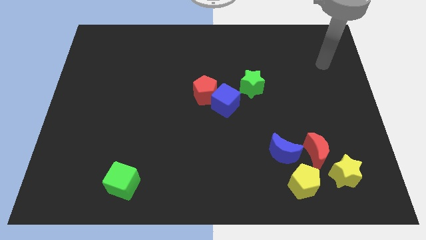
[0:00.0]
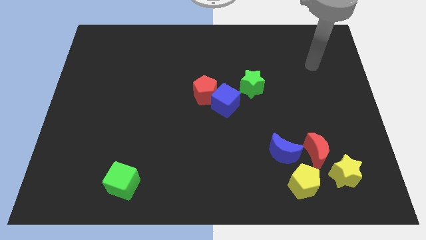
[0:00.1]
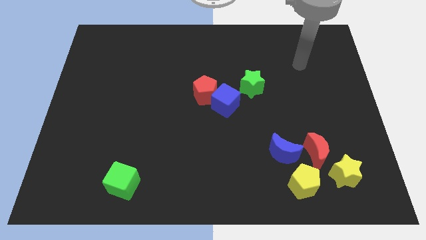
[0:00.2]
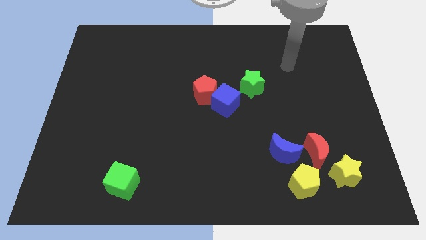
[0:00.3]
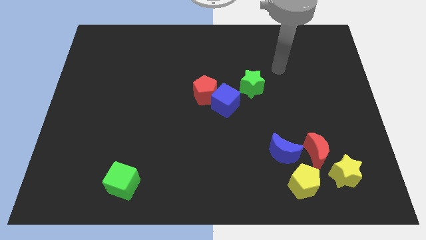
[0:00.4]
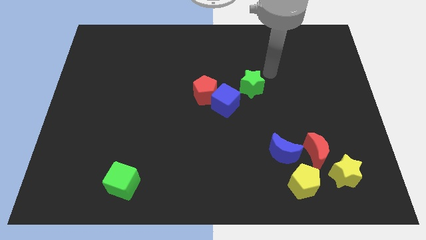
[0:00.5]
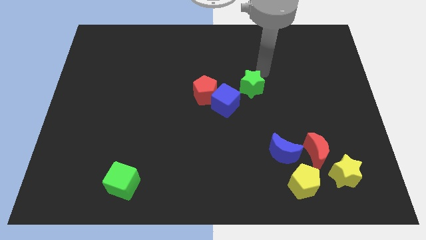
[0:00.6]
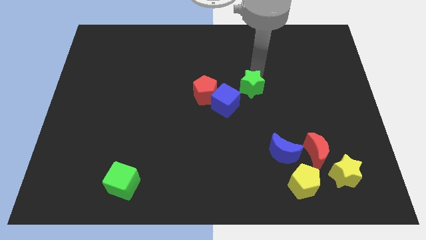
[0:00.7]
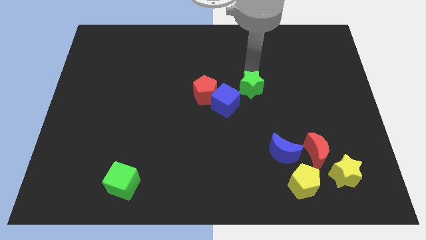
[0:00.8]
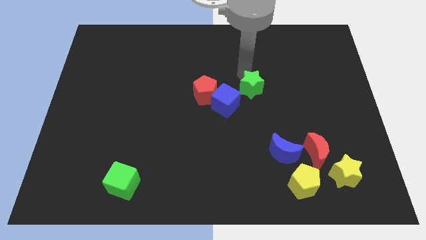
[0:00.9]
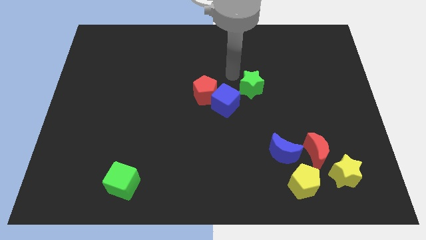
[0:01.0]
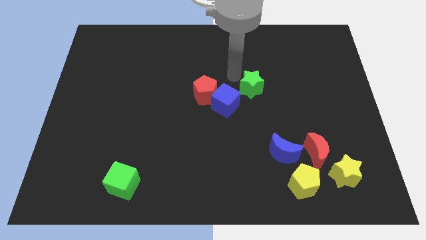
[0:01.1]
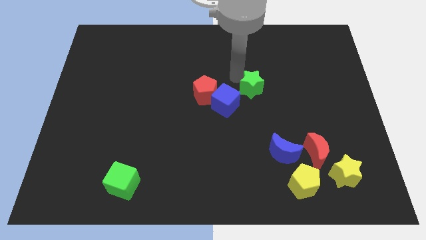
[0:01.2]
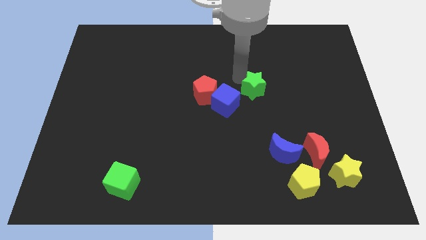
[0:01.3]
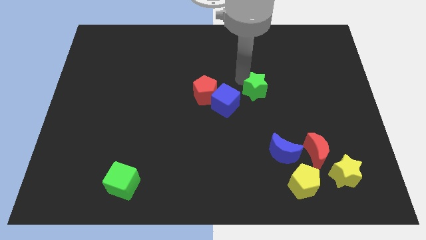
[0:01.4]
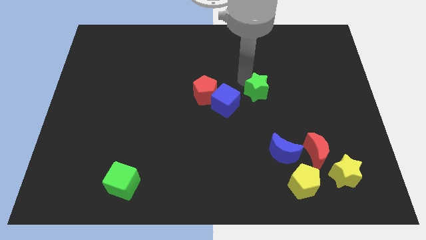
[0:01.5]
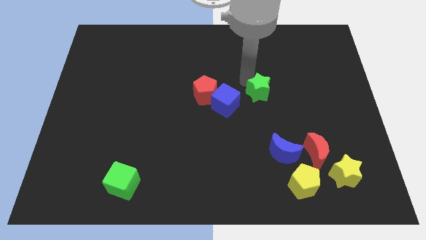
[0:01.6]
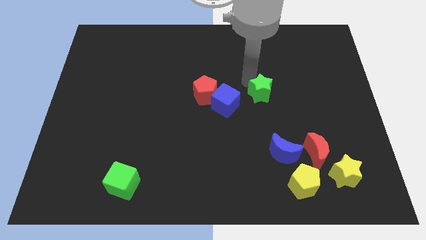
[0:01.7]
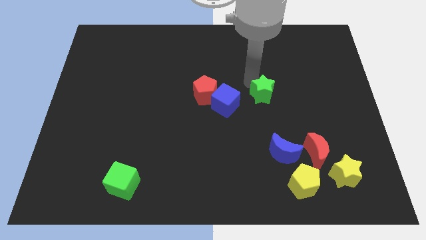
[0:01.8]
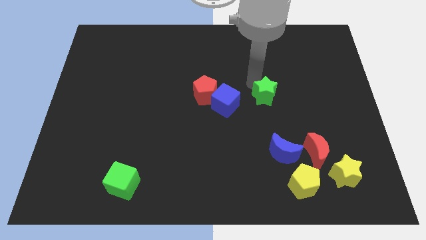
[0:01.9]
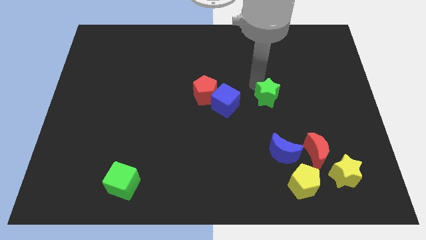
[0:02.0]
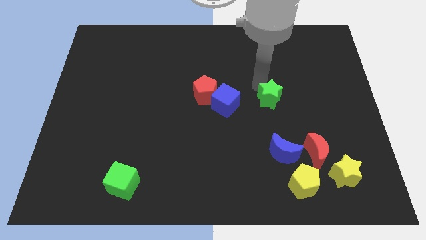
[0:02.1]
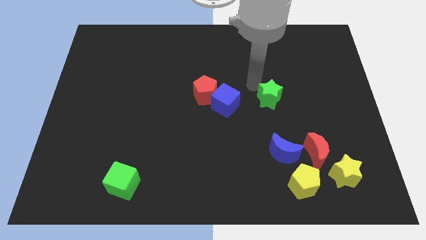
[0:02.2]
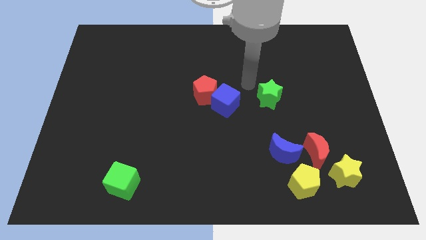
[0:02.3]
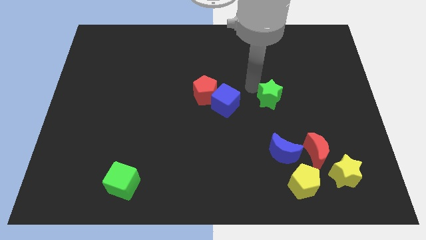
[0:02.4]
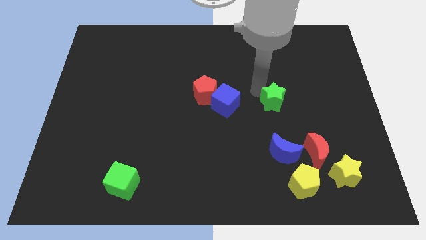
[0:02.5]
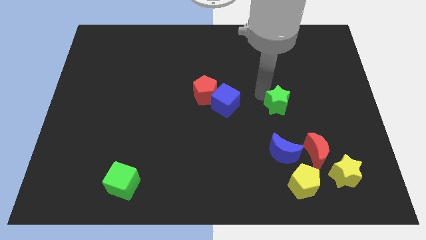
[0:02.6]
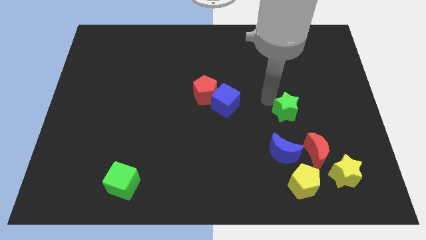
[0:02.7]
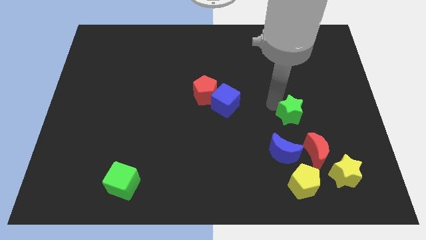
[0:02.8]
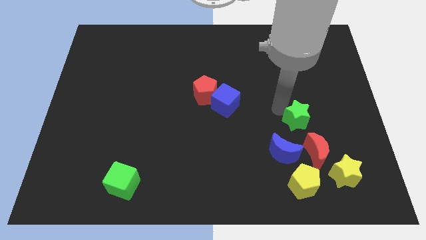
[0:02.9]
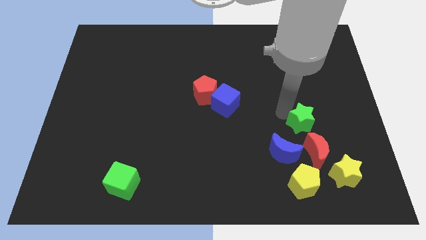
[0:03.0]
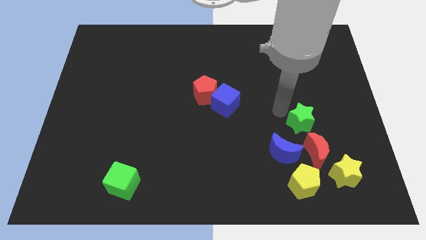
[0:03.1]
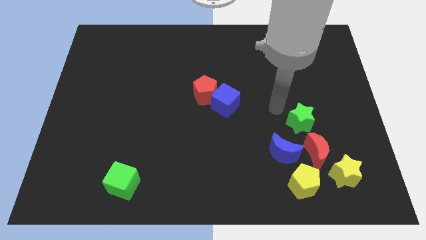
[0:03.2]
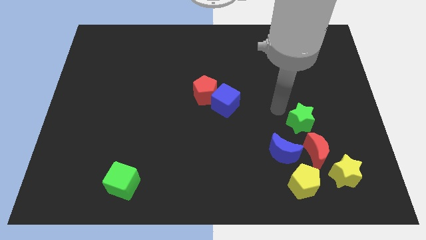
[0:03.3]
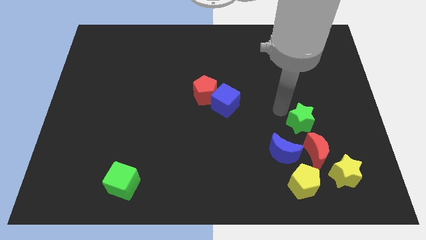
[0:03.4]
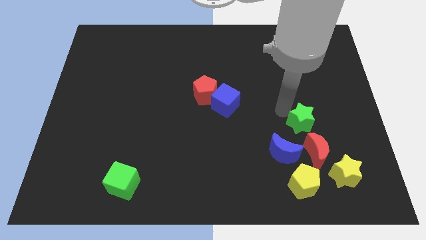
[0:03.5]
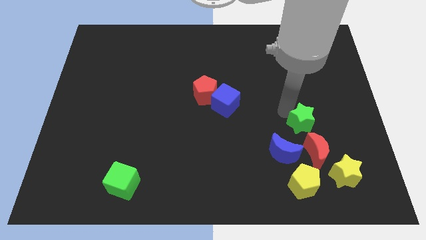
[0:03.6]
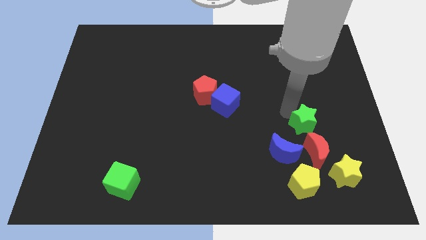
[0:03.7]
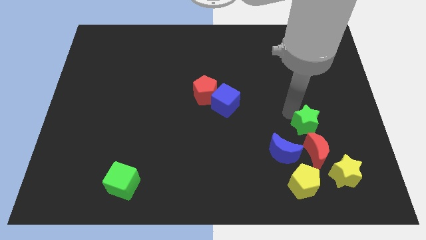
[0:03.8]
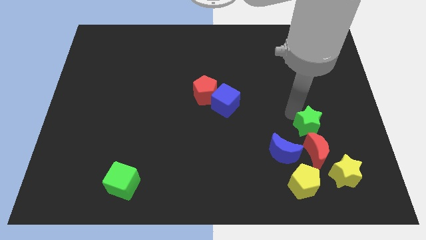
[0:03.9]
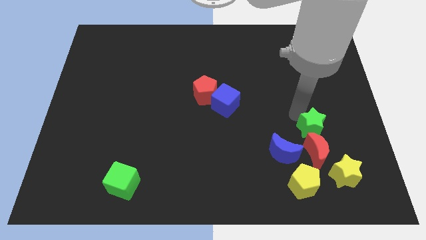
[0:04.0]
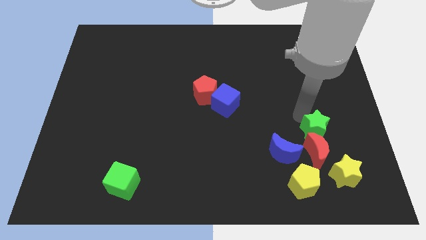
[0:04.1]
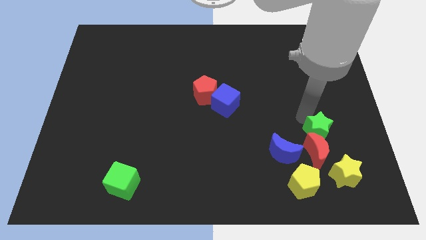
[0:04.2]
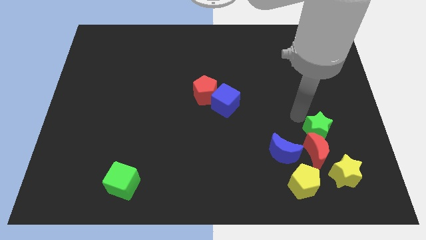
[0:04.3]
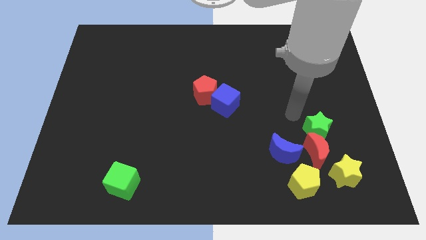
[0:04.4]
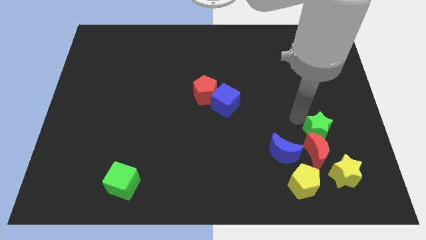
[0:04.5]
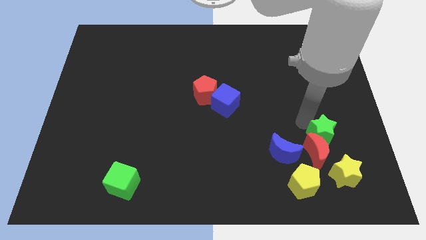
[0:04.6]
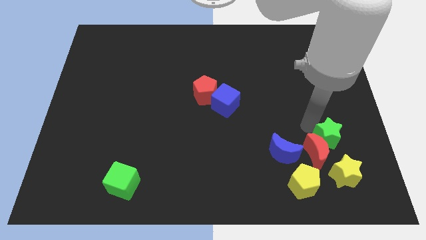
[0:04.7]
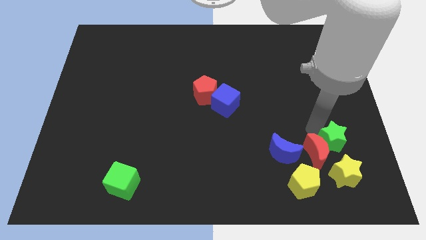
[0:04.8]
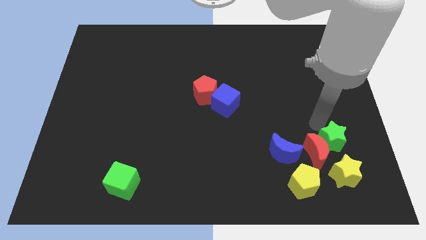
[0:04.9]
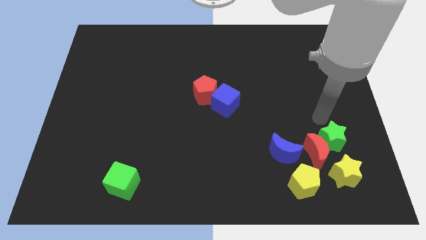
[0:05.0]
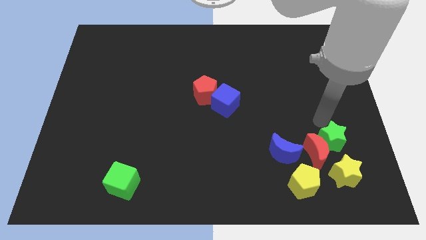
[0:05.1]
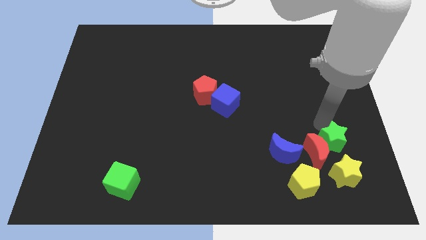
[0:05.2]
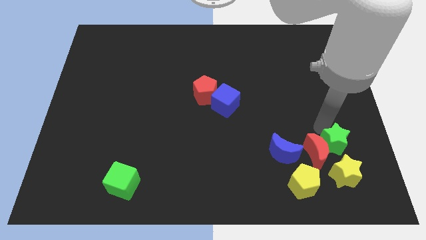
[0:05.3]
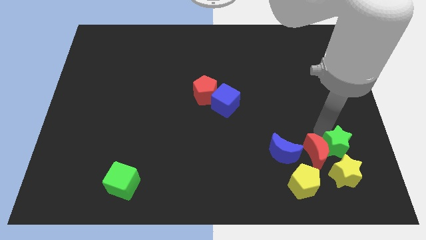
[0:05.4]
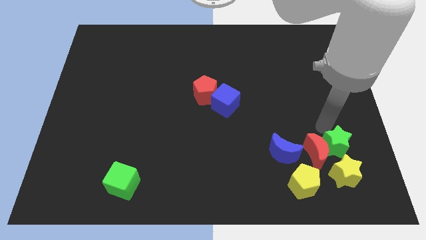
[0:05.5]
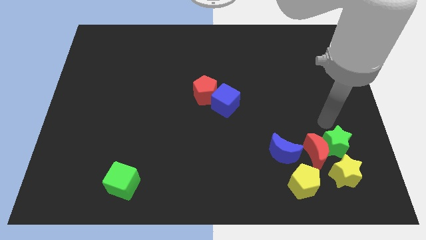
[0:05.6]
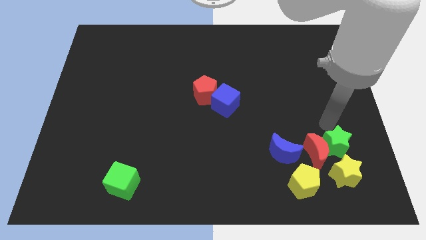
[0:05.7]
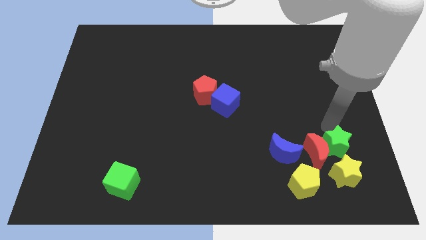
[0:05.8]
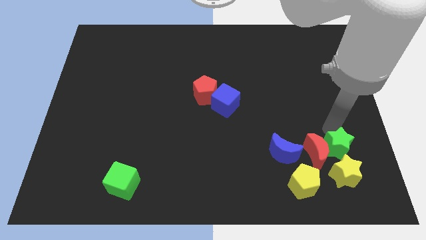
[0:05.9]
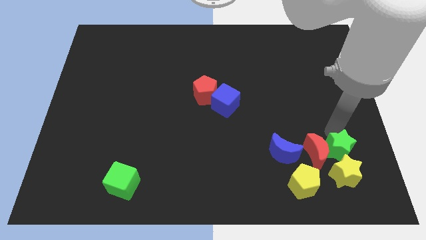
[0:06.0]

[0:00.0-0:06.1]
slide the green star close to the yellow star

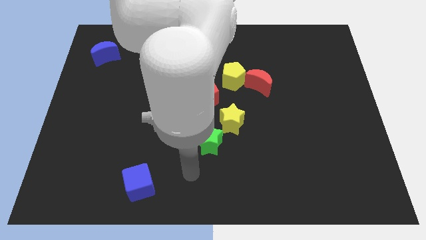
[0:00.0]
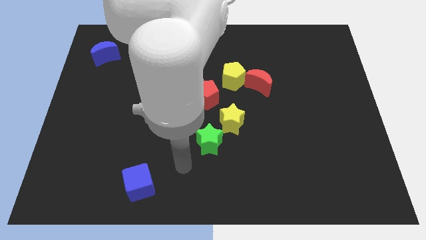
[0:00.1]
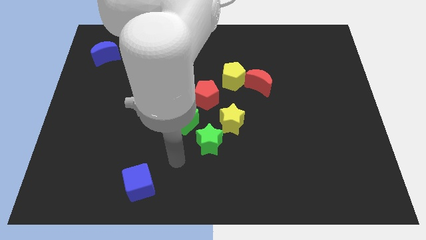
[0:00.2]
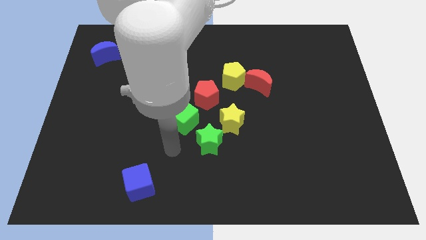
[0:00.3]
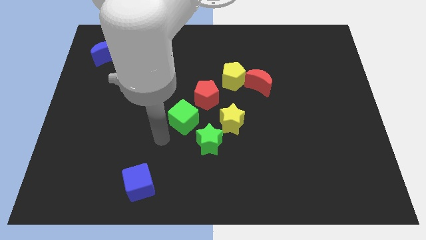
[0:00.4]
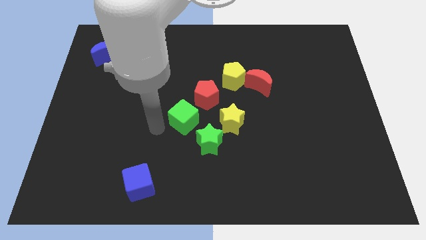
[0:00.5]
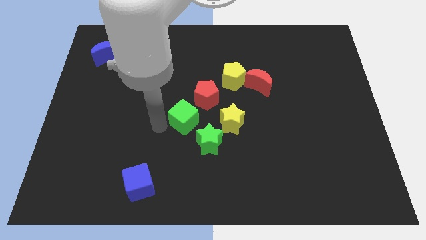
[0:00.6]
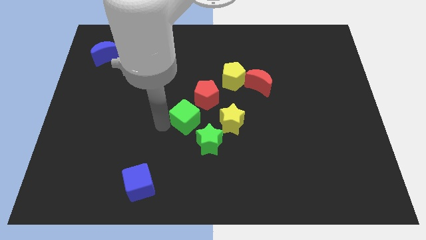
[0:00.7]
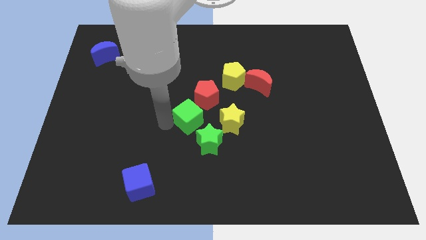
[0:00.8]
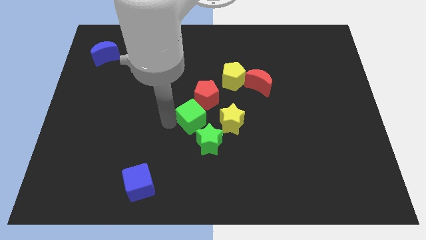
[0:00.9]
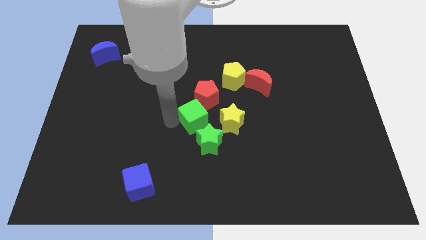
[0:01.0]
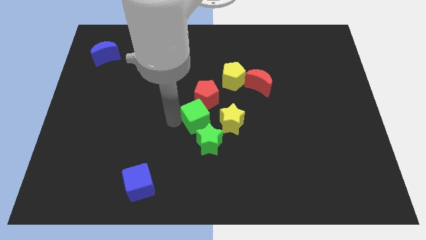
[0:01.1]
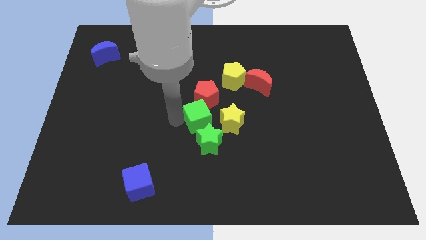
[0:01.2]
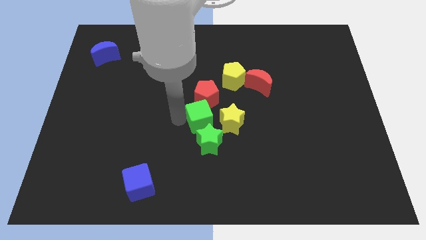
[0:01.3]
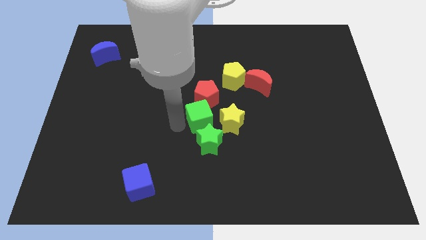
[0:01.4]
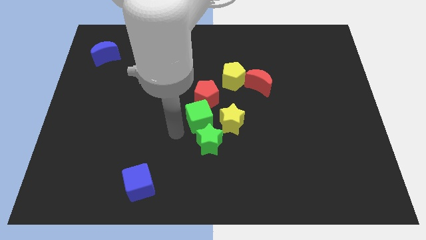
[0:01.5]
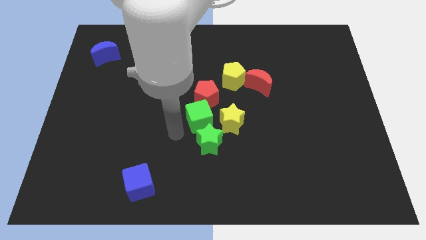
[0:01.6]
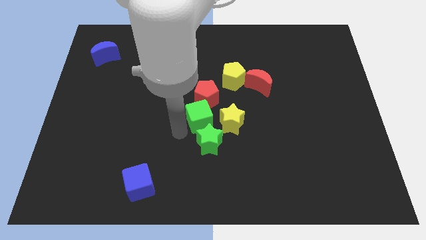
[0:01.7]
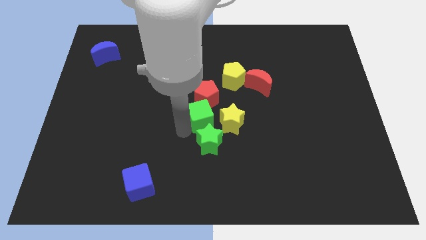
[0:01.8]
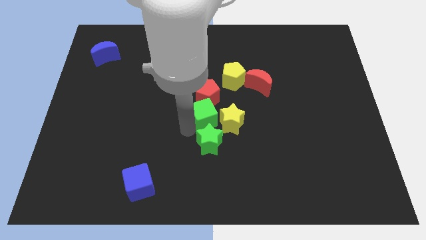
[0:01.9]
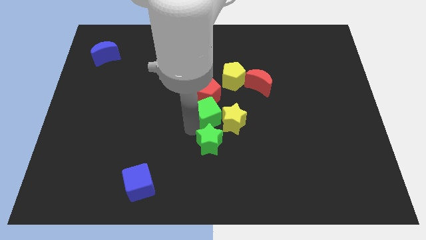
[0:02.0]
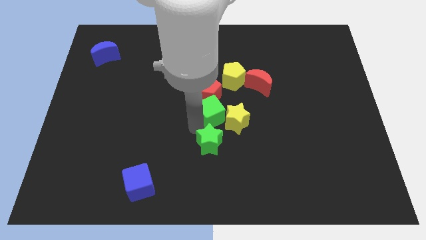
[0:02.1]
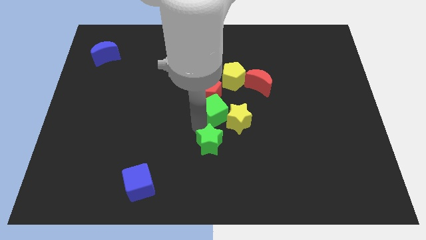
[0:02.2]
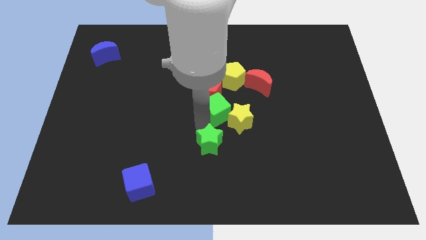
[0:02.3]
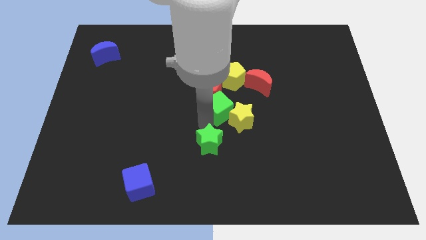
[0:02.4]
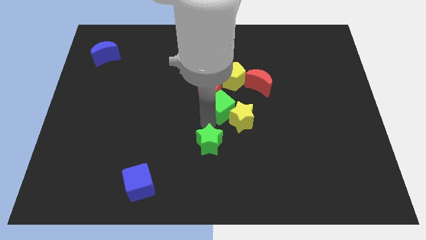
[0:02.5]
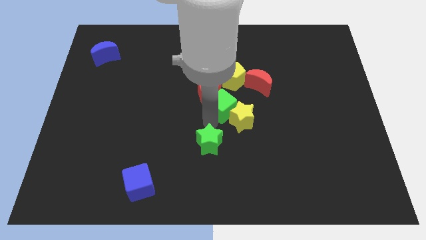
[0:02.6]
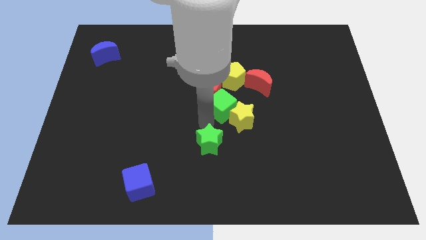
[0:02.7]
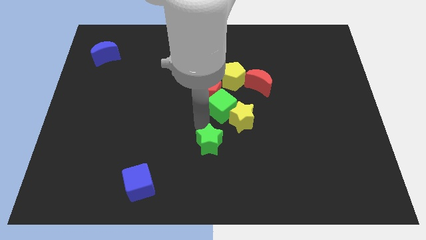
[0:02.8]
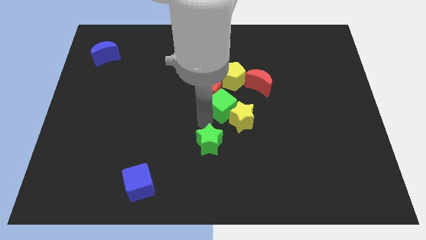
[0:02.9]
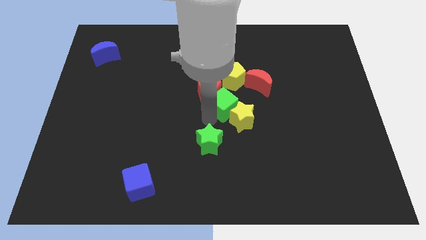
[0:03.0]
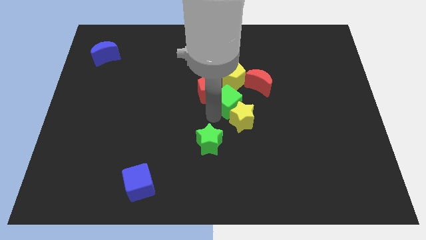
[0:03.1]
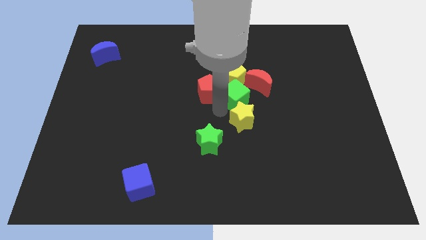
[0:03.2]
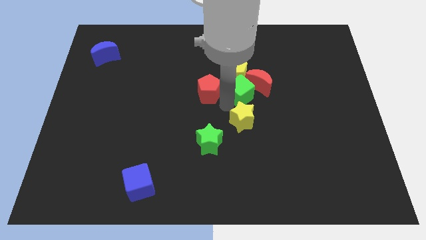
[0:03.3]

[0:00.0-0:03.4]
move the green cube next to the red moon
